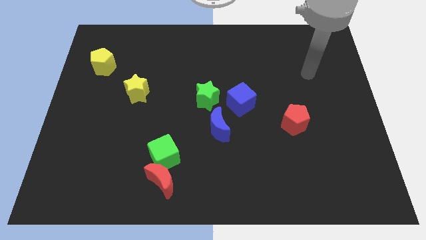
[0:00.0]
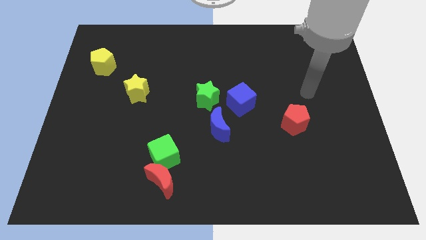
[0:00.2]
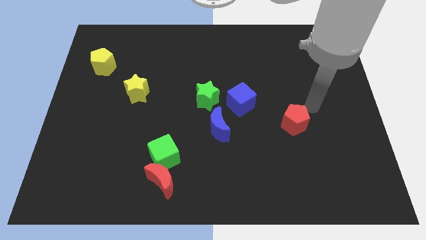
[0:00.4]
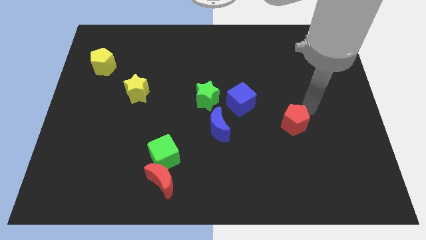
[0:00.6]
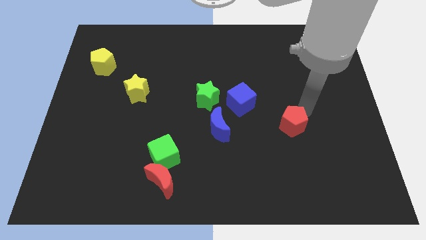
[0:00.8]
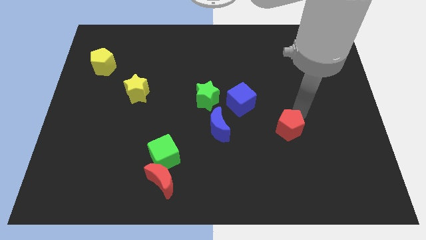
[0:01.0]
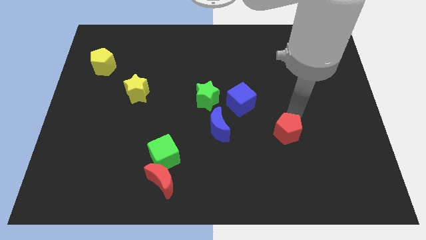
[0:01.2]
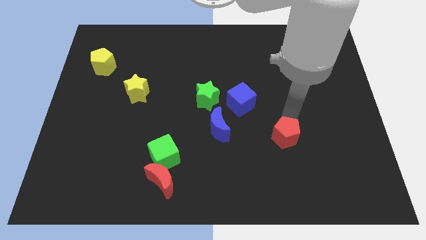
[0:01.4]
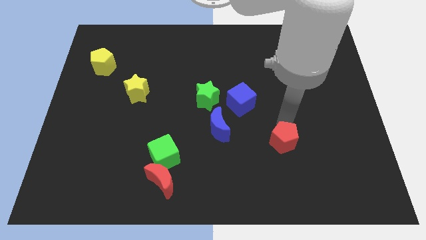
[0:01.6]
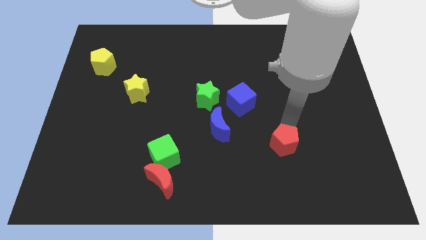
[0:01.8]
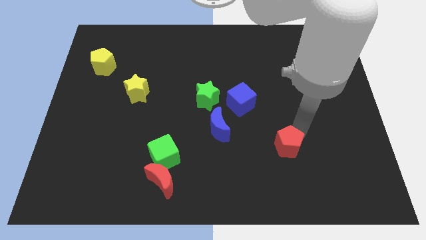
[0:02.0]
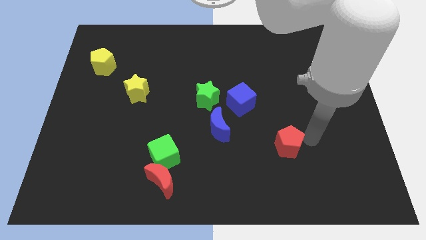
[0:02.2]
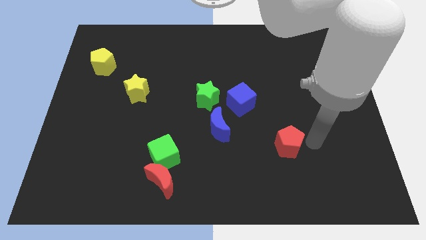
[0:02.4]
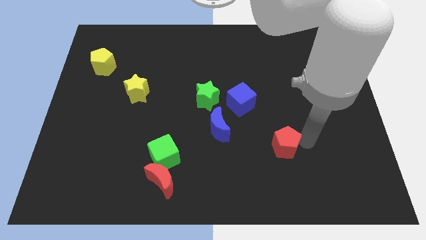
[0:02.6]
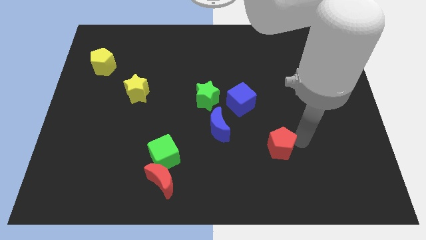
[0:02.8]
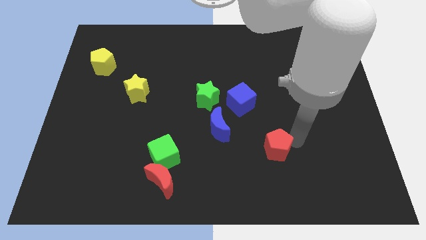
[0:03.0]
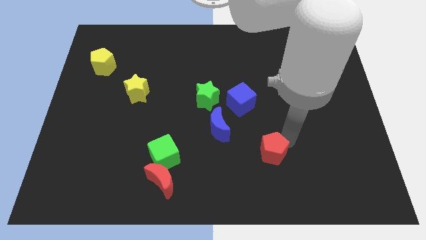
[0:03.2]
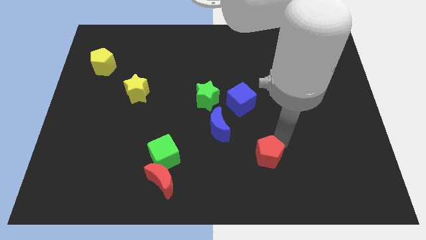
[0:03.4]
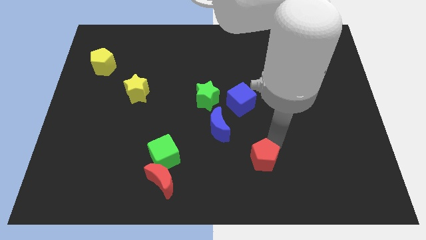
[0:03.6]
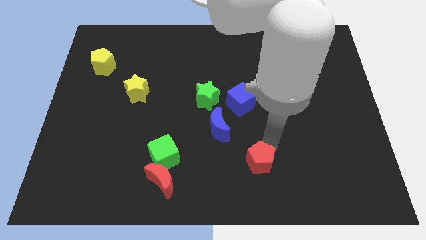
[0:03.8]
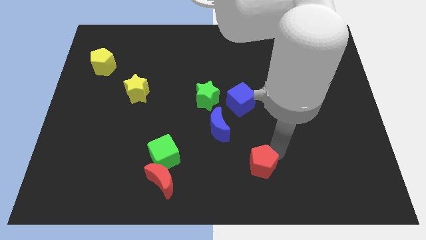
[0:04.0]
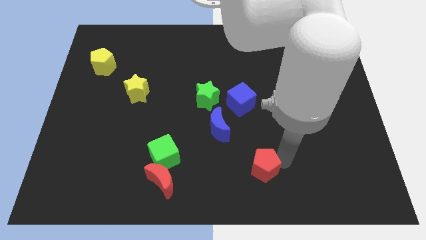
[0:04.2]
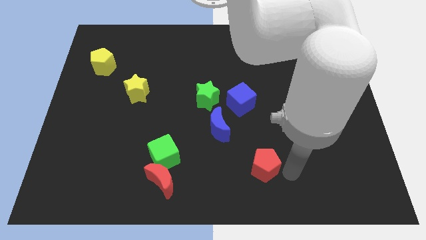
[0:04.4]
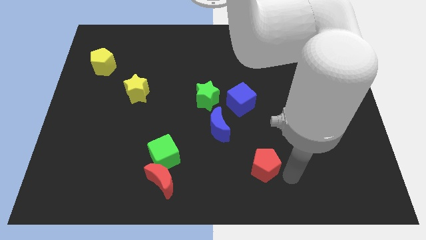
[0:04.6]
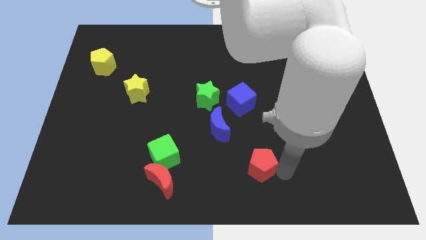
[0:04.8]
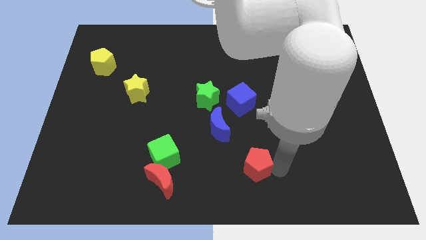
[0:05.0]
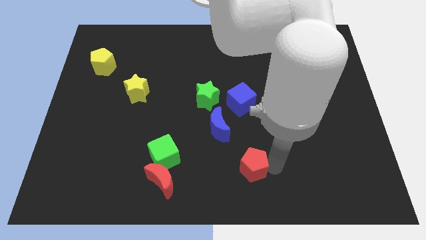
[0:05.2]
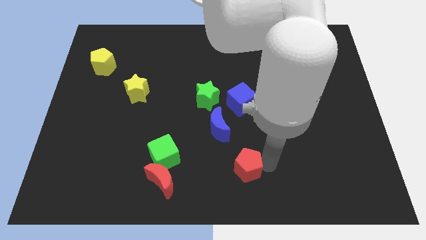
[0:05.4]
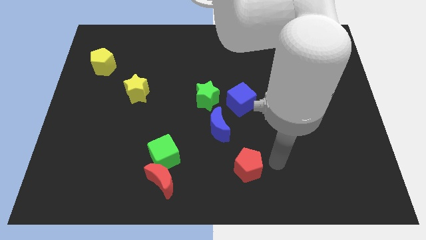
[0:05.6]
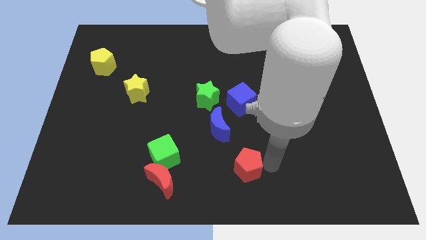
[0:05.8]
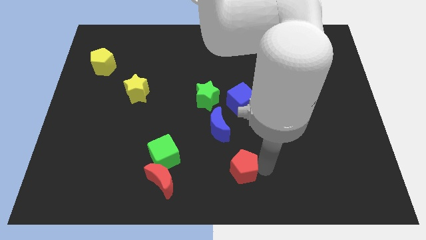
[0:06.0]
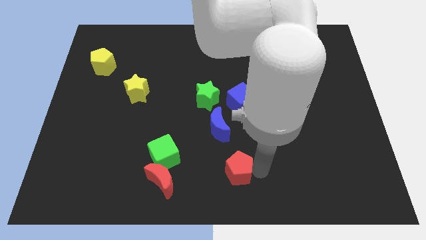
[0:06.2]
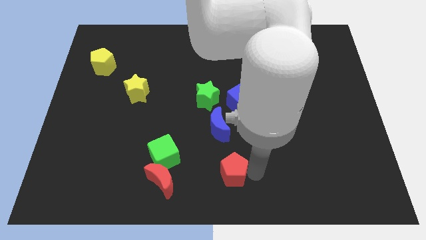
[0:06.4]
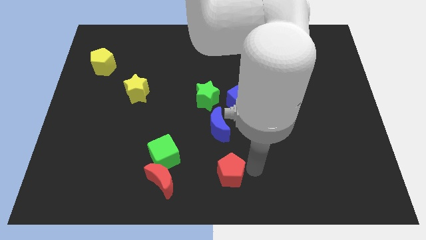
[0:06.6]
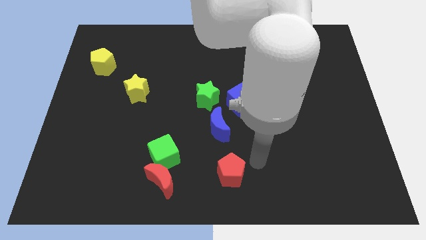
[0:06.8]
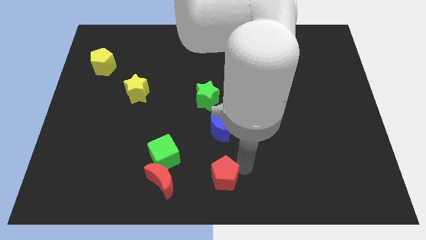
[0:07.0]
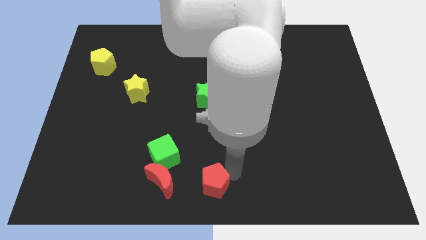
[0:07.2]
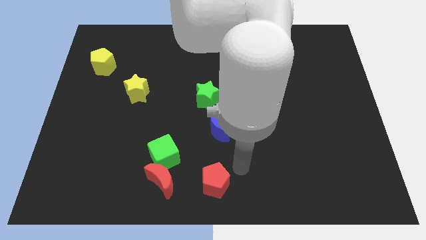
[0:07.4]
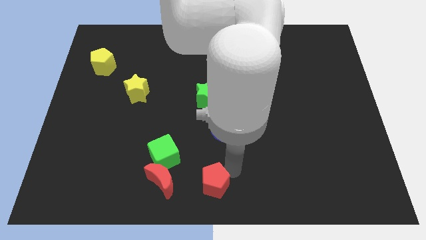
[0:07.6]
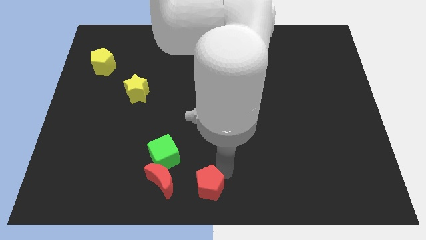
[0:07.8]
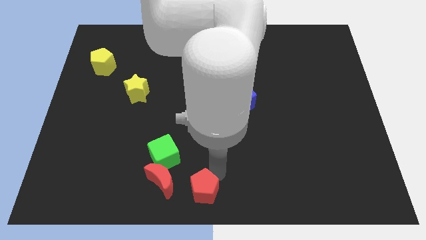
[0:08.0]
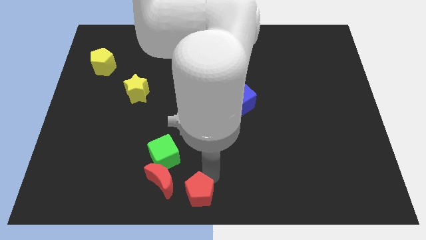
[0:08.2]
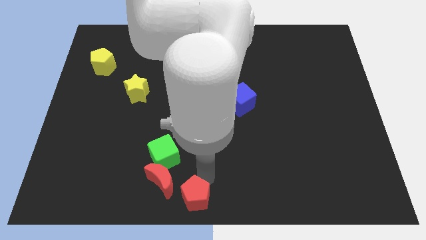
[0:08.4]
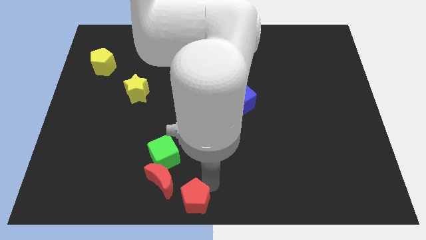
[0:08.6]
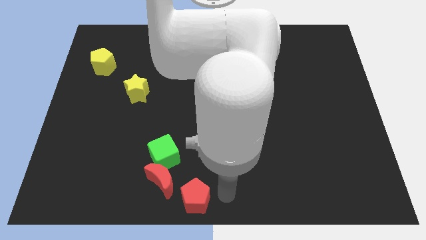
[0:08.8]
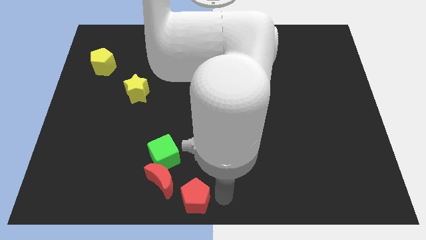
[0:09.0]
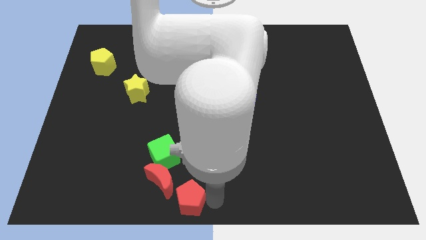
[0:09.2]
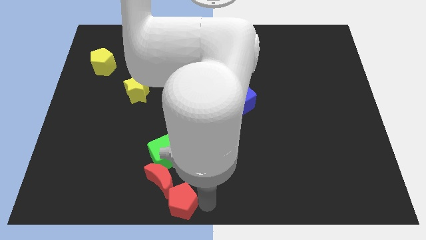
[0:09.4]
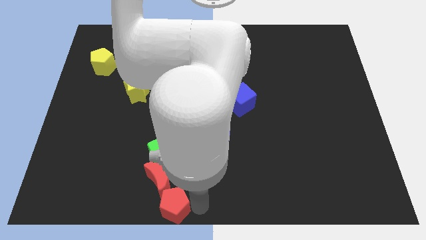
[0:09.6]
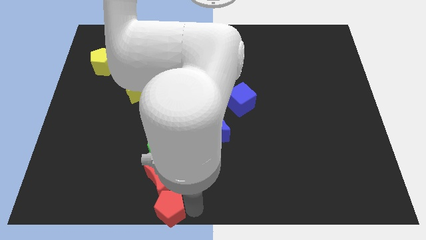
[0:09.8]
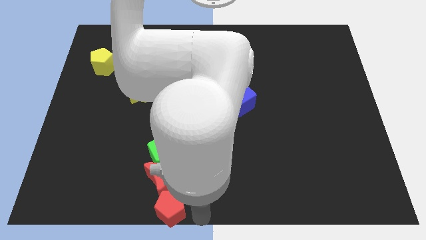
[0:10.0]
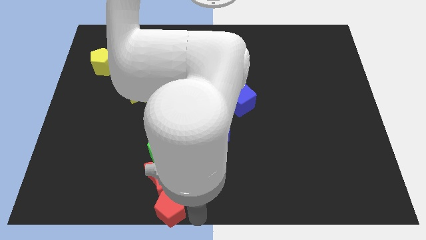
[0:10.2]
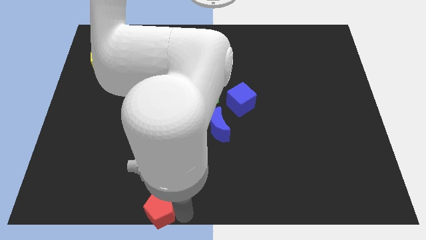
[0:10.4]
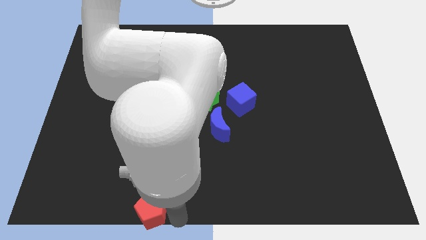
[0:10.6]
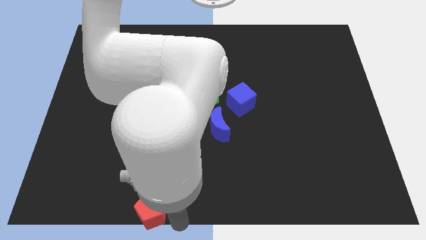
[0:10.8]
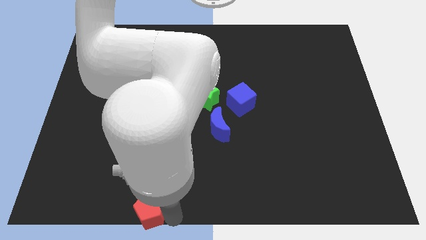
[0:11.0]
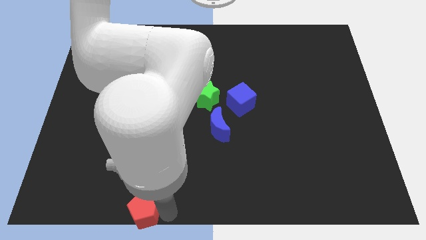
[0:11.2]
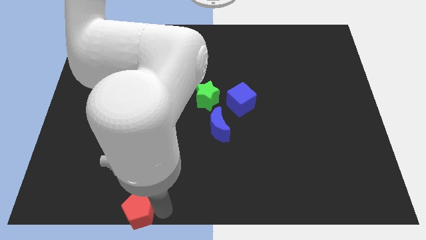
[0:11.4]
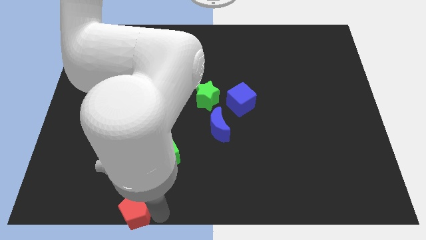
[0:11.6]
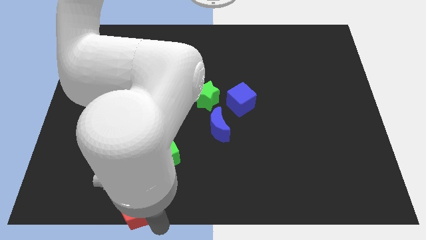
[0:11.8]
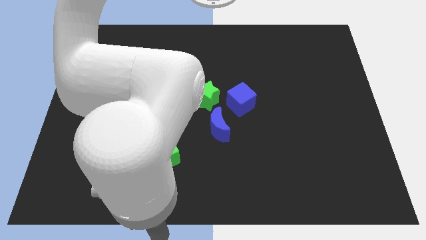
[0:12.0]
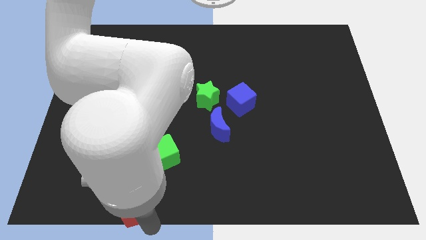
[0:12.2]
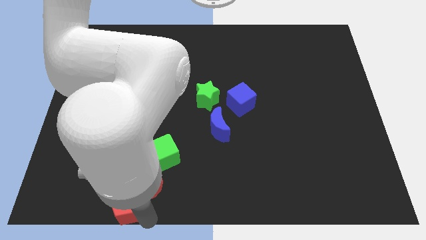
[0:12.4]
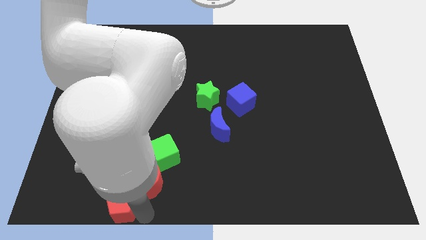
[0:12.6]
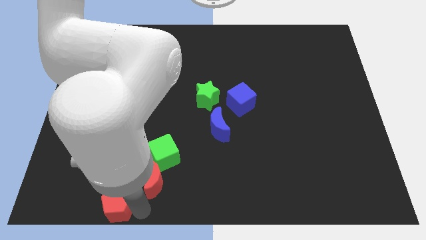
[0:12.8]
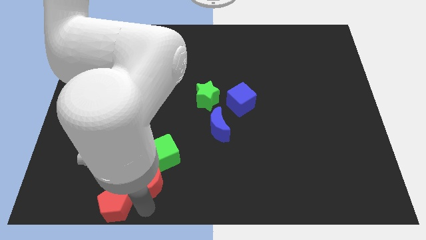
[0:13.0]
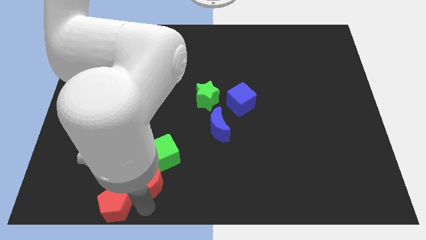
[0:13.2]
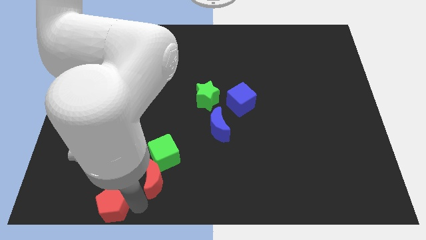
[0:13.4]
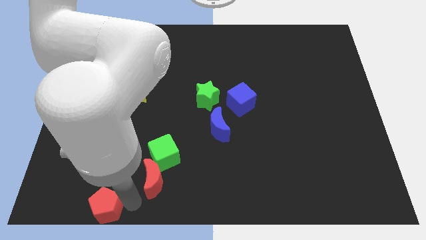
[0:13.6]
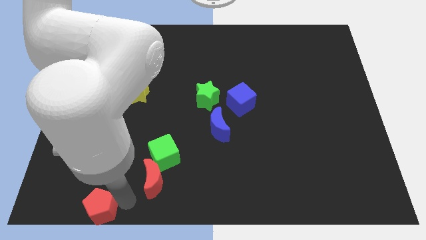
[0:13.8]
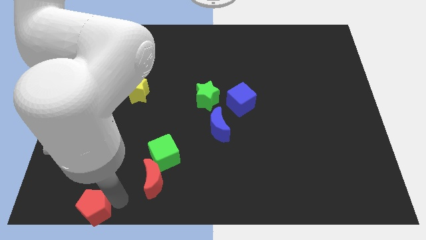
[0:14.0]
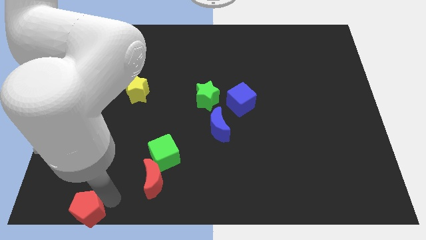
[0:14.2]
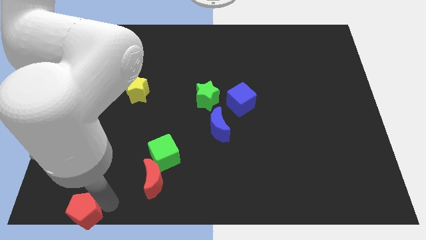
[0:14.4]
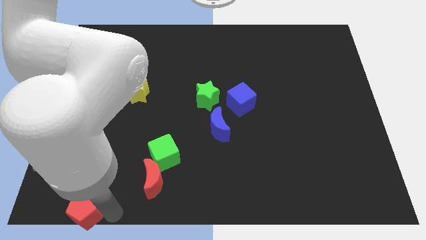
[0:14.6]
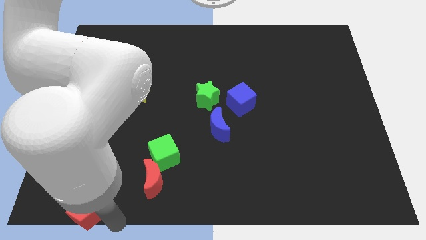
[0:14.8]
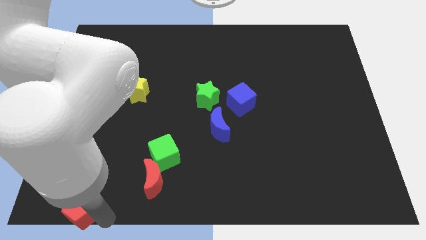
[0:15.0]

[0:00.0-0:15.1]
slide the red pentagon to the bottom left of the board
